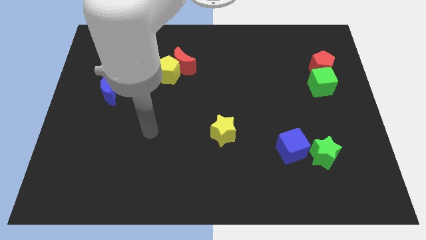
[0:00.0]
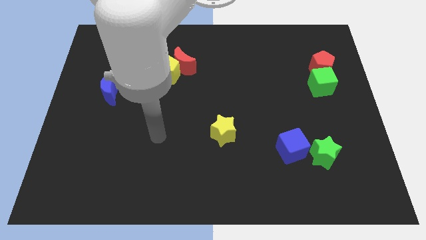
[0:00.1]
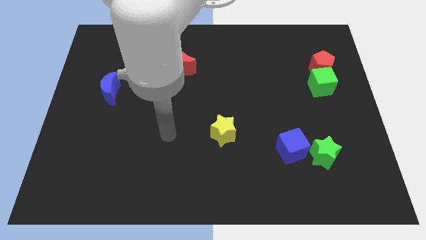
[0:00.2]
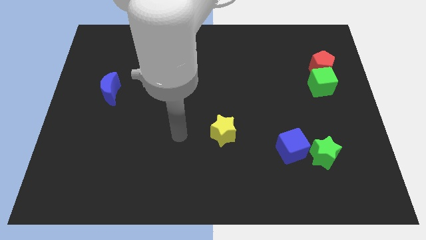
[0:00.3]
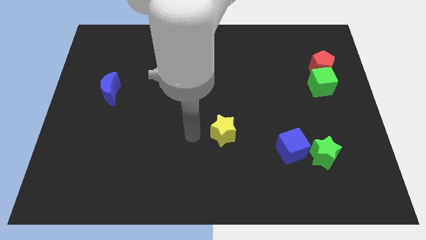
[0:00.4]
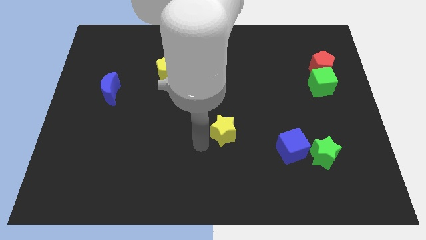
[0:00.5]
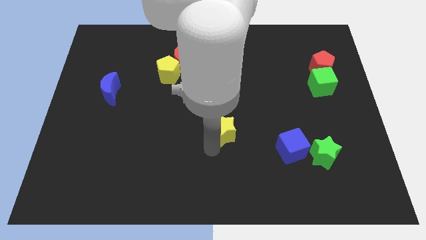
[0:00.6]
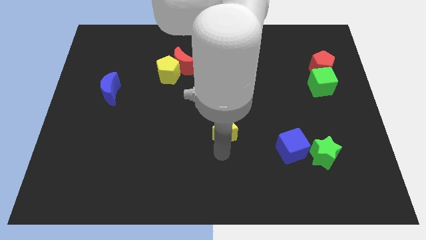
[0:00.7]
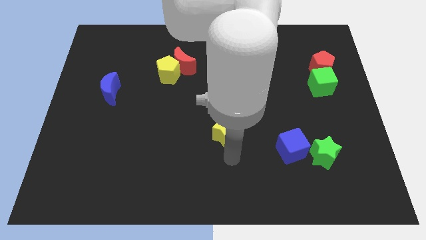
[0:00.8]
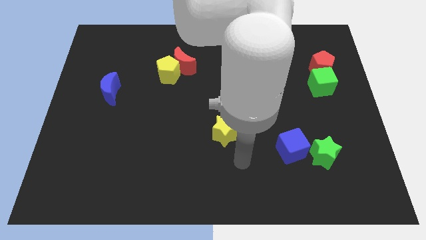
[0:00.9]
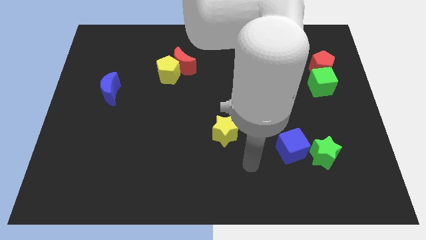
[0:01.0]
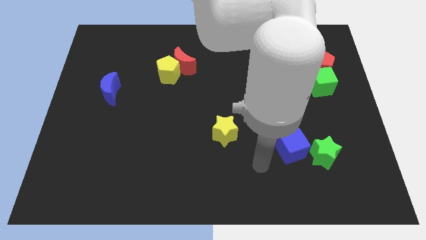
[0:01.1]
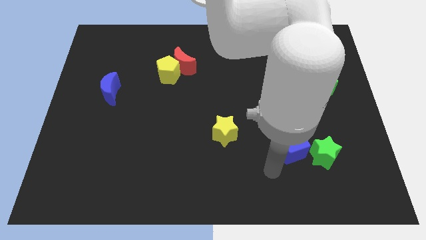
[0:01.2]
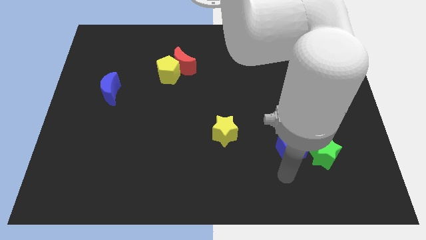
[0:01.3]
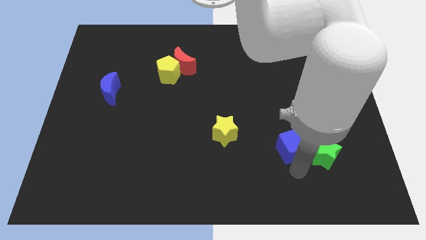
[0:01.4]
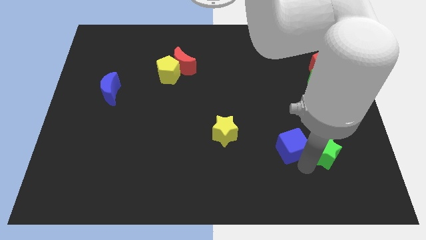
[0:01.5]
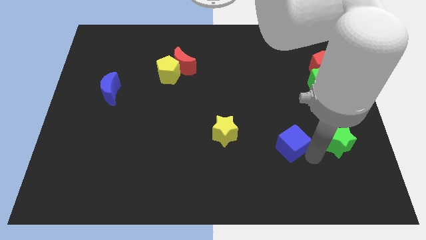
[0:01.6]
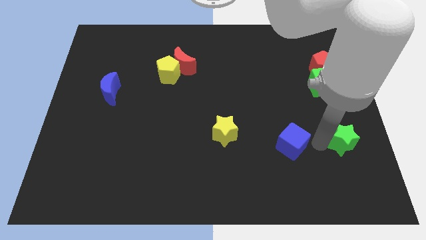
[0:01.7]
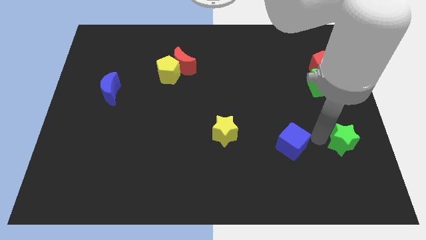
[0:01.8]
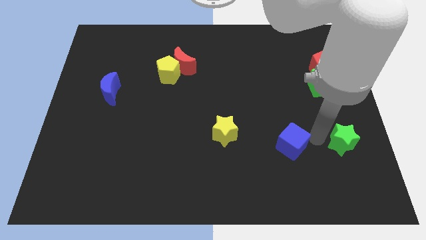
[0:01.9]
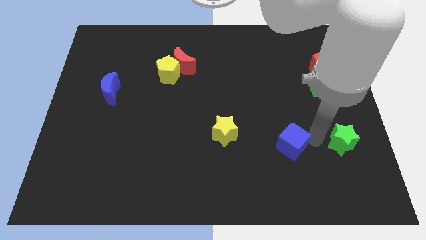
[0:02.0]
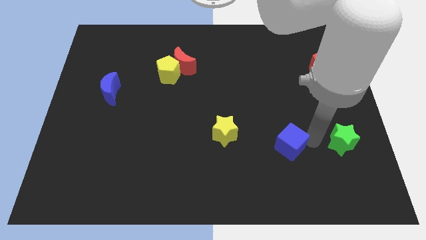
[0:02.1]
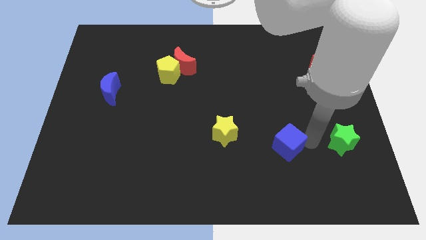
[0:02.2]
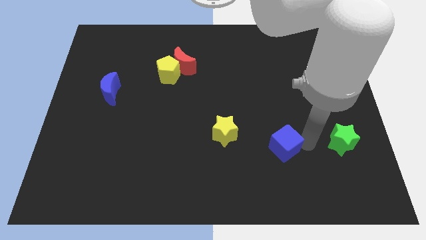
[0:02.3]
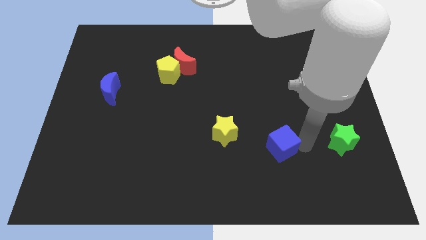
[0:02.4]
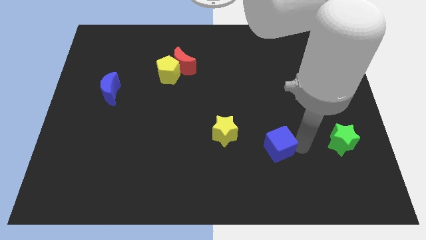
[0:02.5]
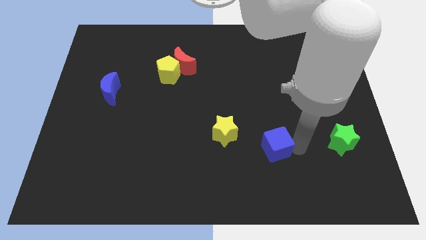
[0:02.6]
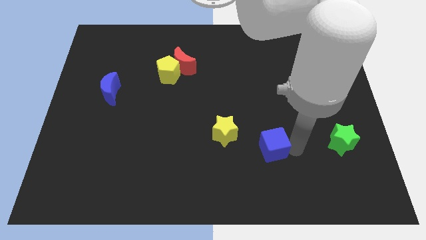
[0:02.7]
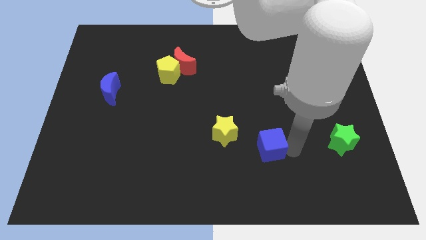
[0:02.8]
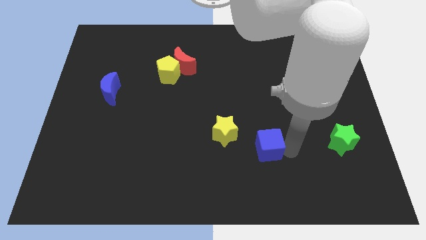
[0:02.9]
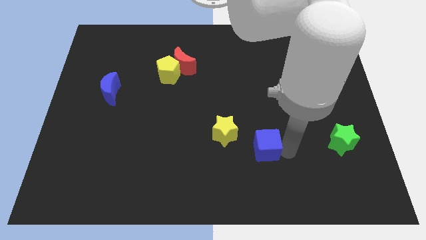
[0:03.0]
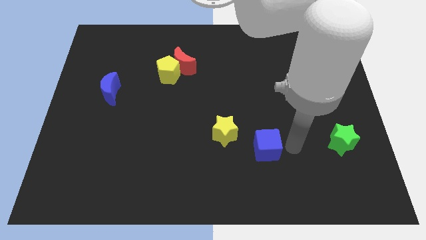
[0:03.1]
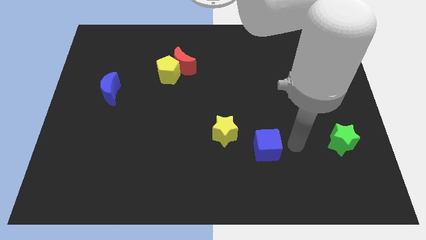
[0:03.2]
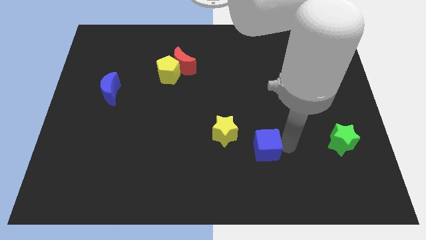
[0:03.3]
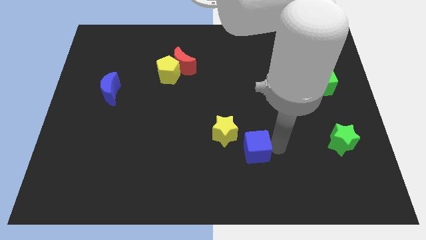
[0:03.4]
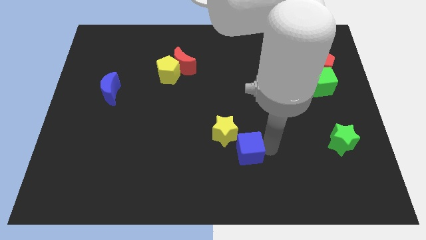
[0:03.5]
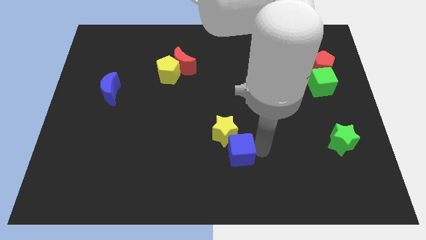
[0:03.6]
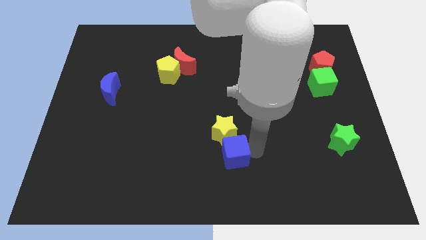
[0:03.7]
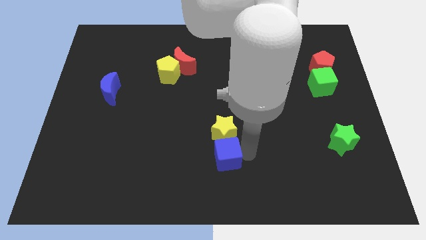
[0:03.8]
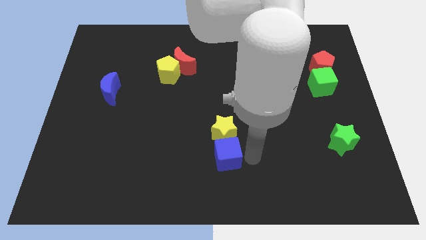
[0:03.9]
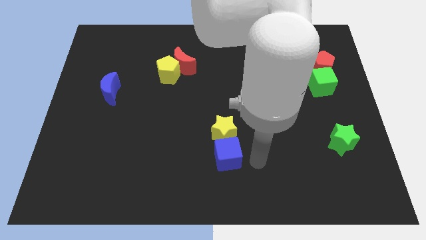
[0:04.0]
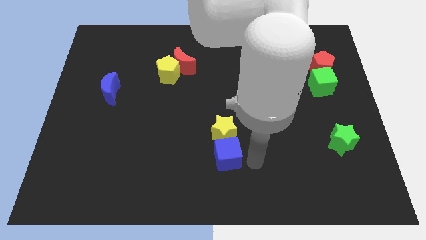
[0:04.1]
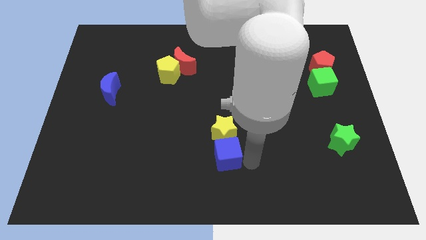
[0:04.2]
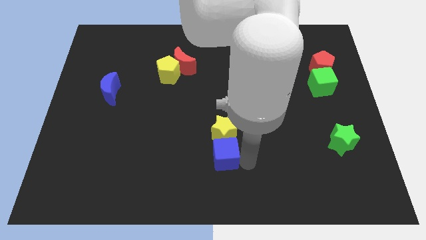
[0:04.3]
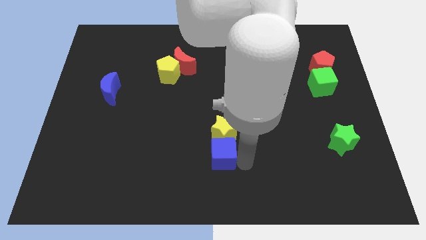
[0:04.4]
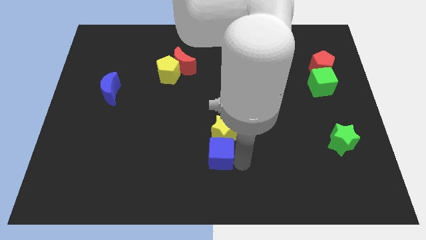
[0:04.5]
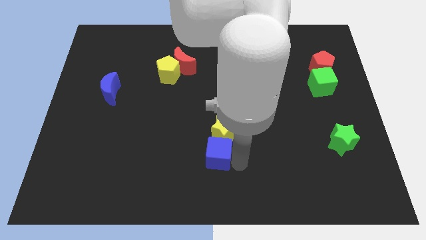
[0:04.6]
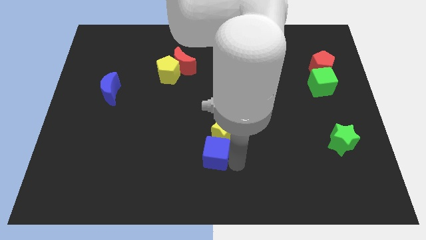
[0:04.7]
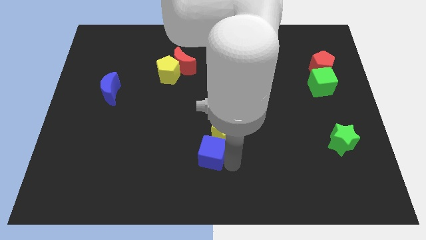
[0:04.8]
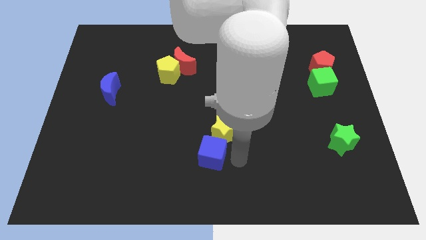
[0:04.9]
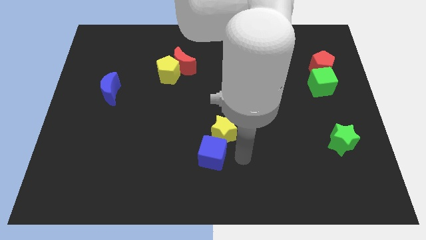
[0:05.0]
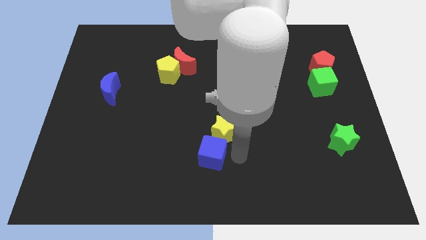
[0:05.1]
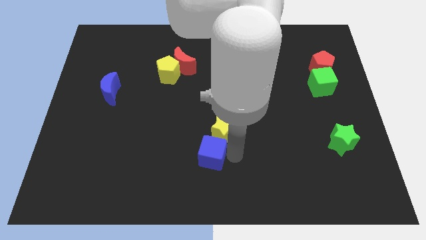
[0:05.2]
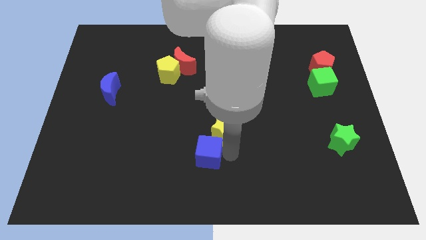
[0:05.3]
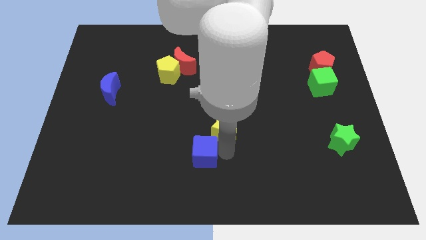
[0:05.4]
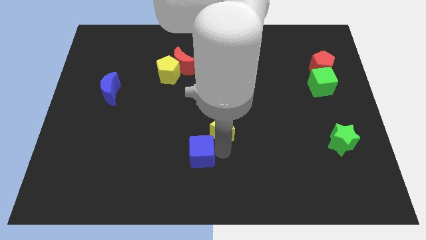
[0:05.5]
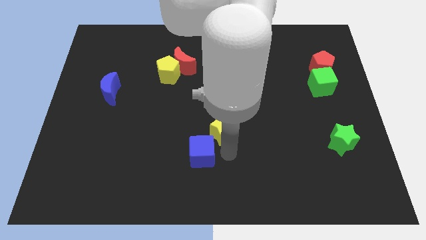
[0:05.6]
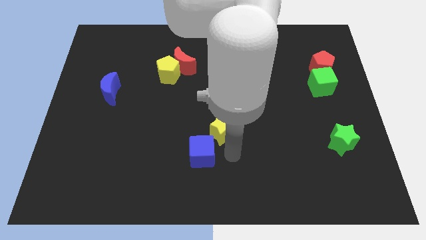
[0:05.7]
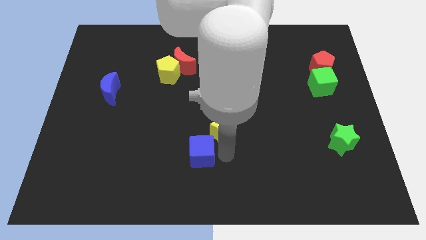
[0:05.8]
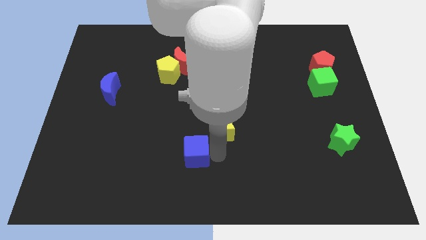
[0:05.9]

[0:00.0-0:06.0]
move the blue cube to the left

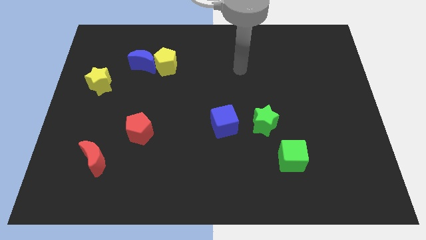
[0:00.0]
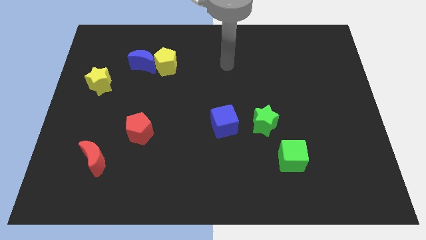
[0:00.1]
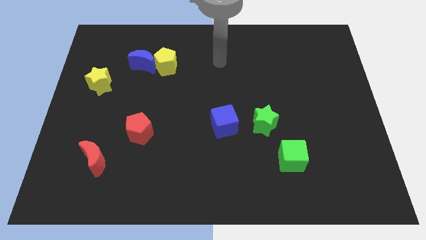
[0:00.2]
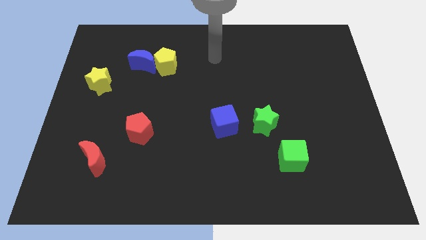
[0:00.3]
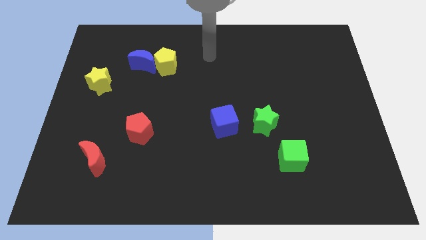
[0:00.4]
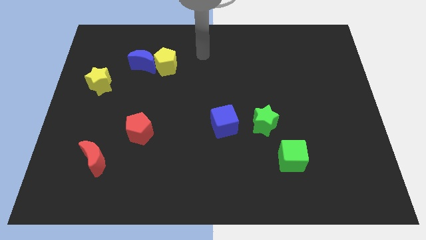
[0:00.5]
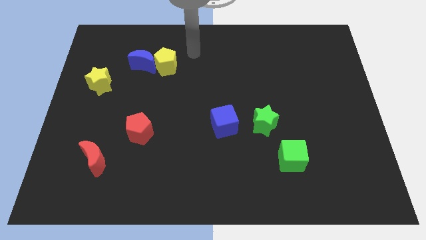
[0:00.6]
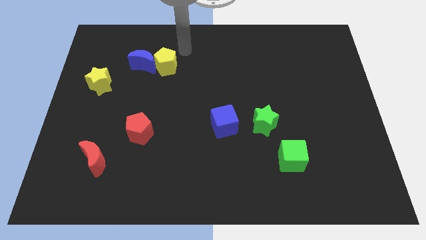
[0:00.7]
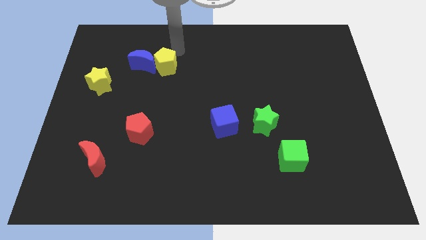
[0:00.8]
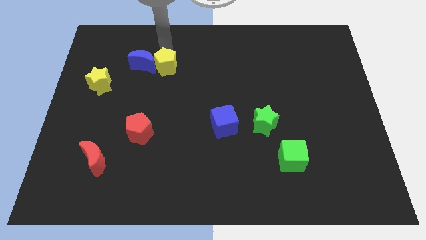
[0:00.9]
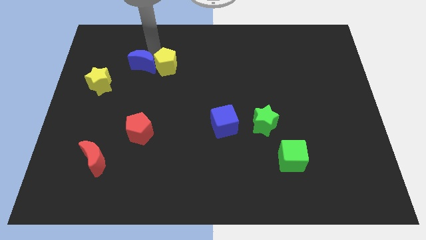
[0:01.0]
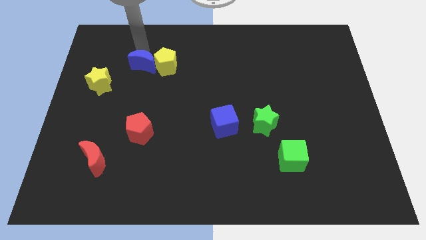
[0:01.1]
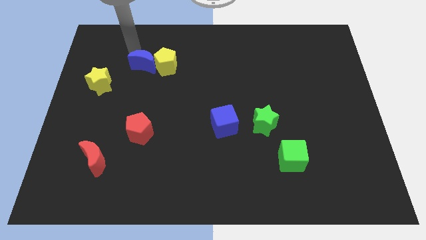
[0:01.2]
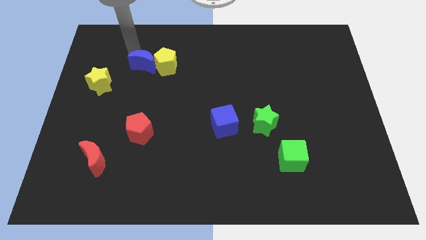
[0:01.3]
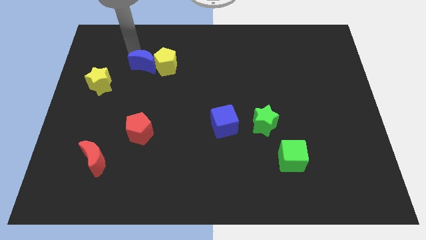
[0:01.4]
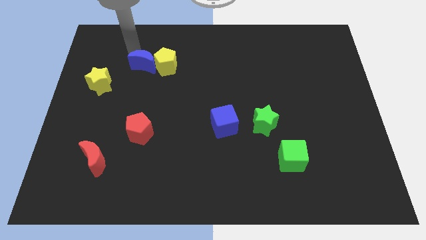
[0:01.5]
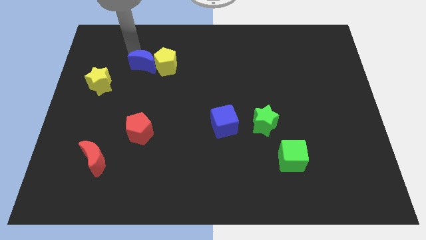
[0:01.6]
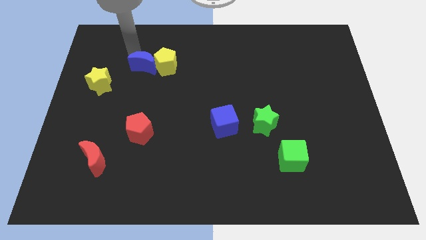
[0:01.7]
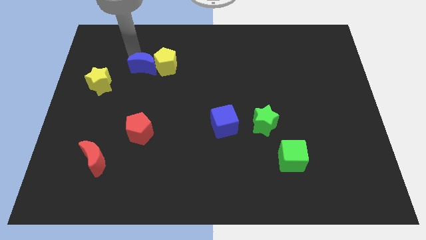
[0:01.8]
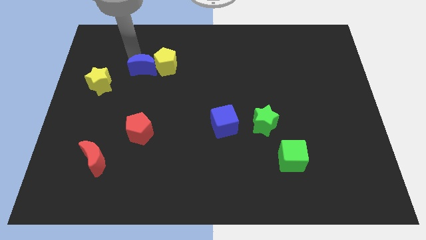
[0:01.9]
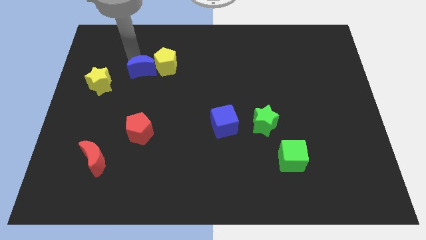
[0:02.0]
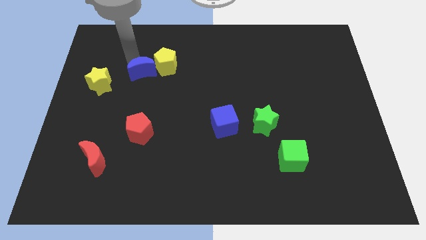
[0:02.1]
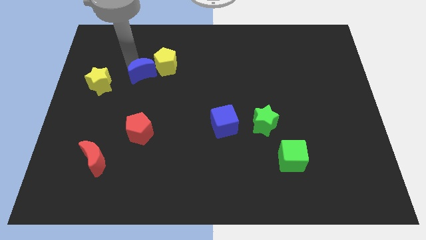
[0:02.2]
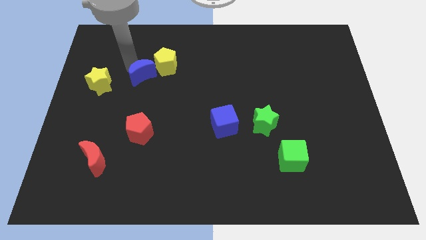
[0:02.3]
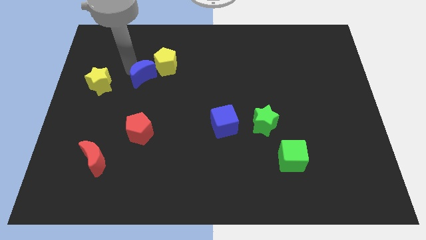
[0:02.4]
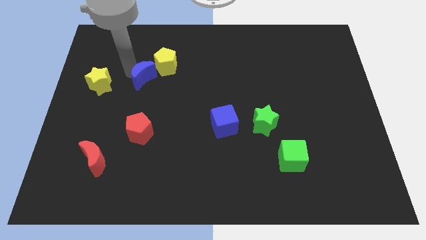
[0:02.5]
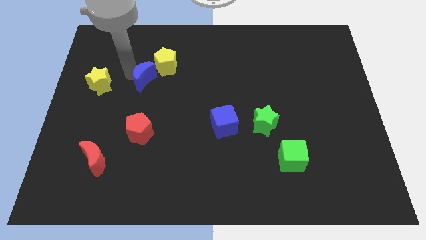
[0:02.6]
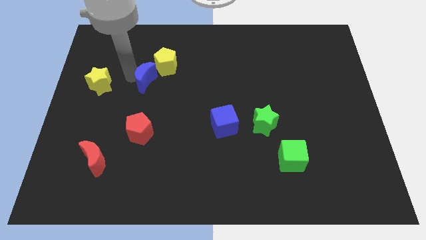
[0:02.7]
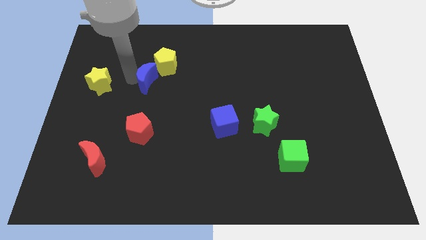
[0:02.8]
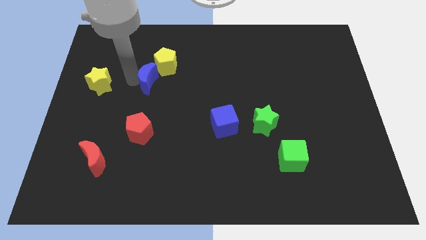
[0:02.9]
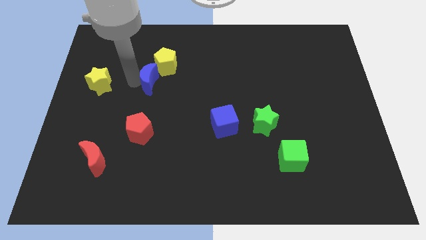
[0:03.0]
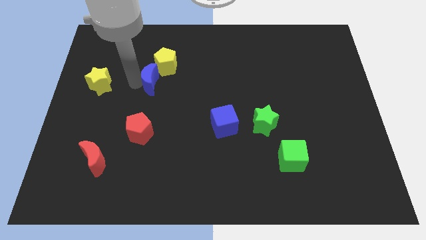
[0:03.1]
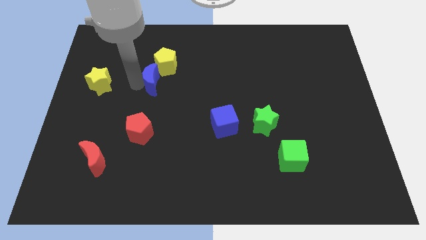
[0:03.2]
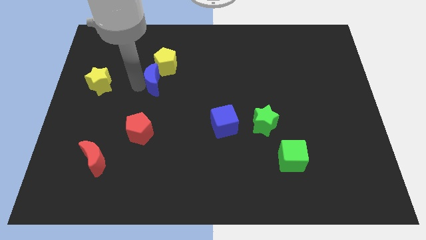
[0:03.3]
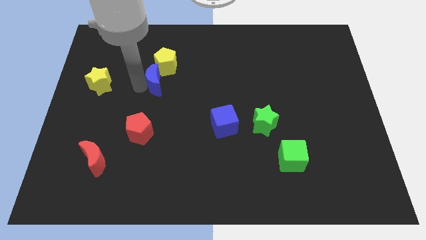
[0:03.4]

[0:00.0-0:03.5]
slide the blue moon somewhat down and to the right diagonally
